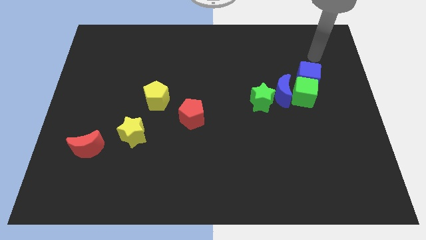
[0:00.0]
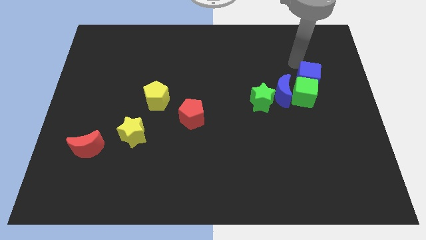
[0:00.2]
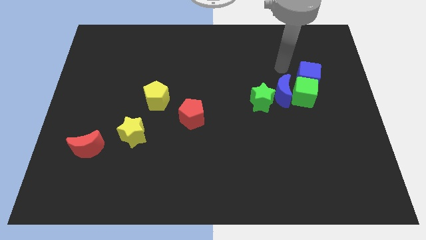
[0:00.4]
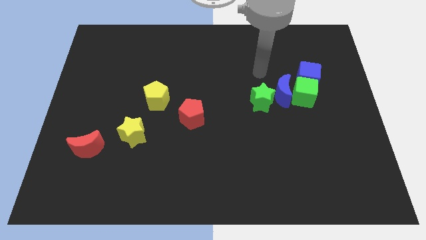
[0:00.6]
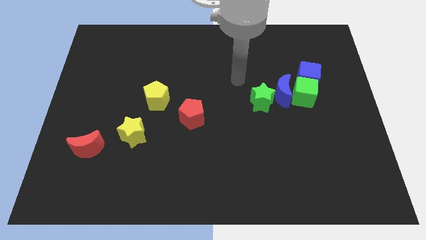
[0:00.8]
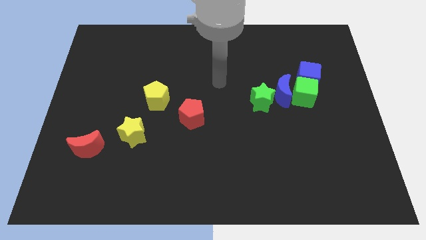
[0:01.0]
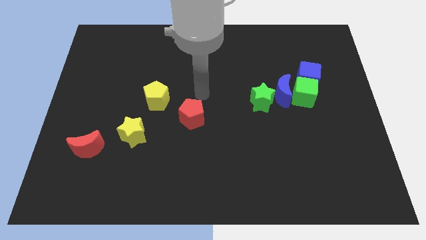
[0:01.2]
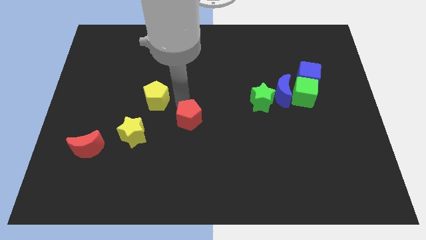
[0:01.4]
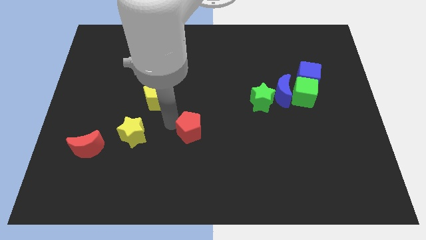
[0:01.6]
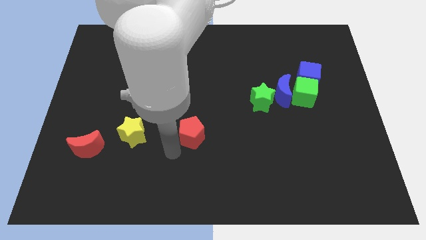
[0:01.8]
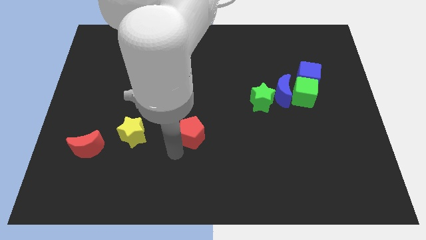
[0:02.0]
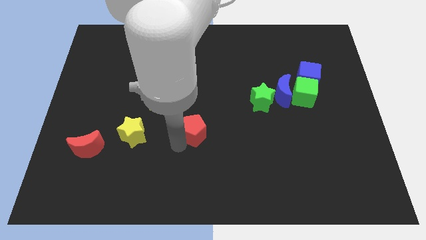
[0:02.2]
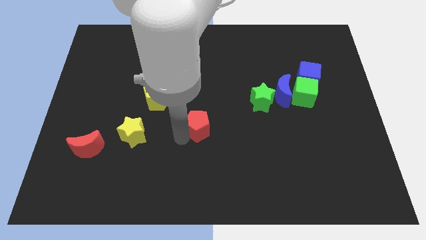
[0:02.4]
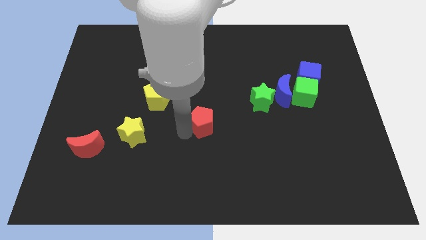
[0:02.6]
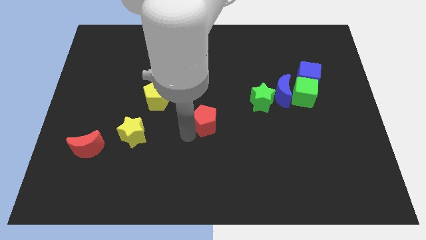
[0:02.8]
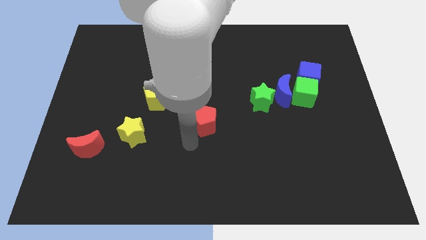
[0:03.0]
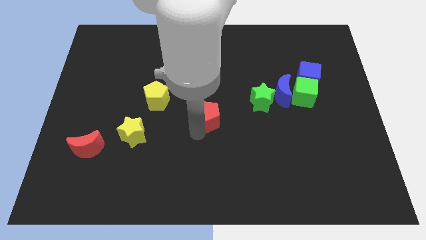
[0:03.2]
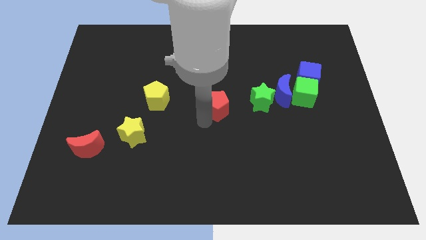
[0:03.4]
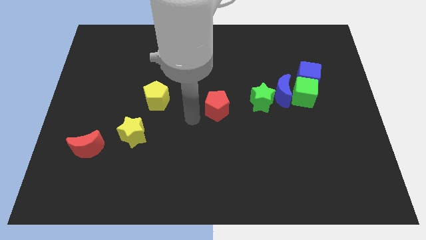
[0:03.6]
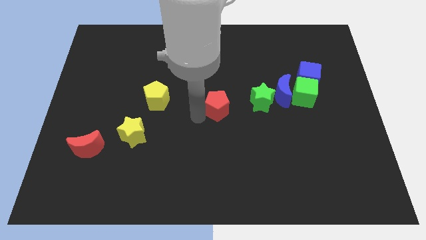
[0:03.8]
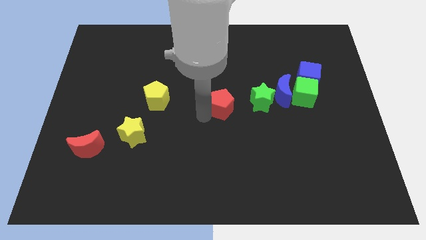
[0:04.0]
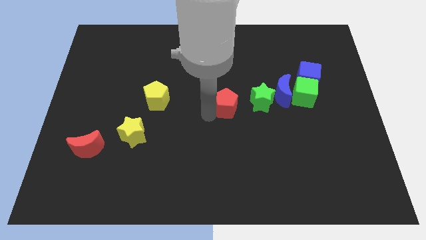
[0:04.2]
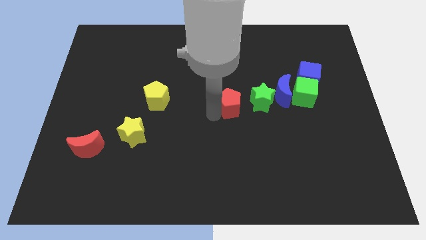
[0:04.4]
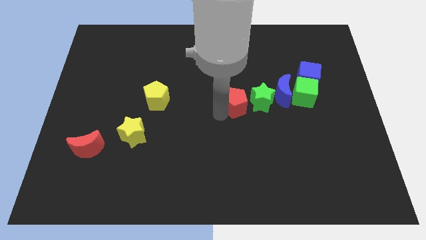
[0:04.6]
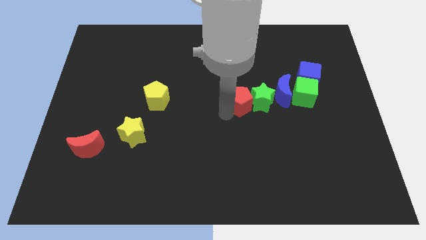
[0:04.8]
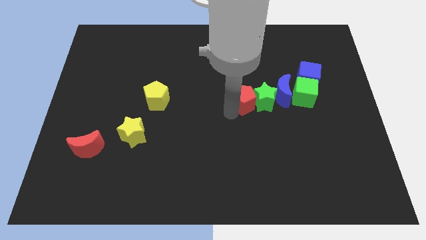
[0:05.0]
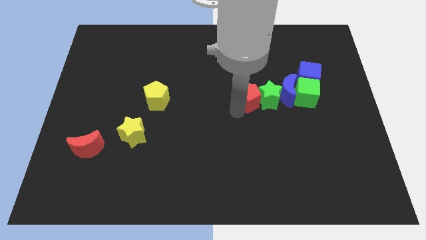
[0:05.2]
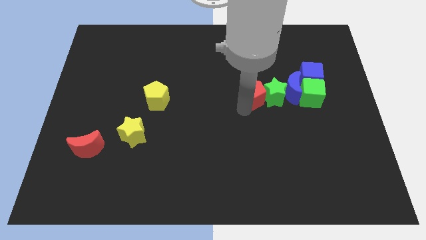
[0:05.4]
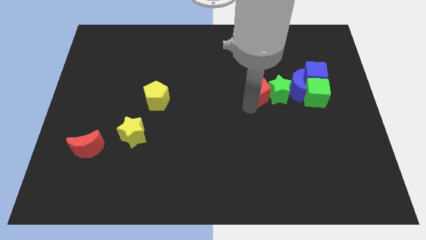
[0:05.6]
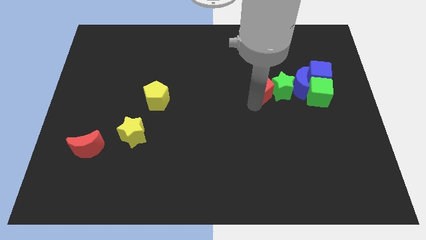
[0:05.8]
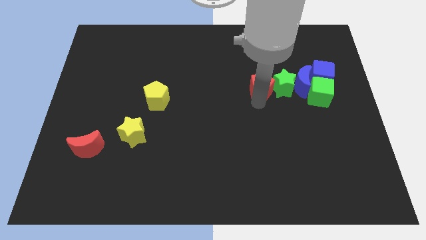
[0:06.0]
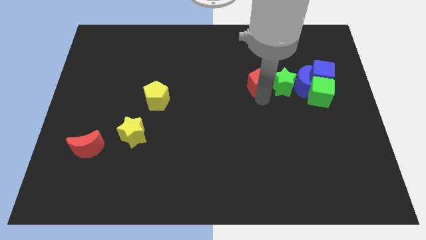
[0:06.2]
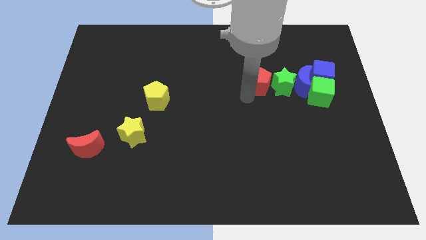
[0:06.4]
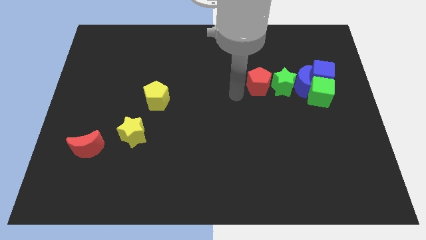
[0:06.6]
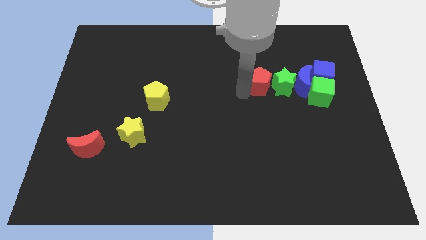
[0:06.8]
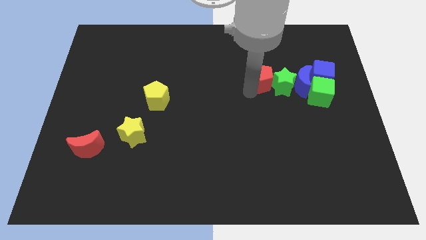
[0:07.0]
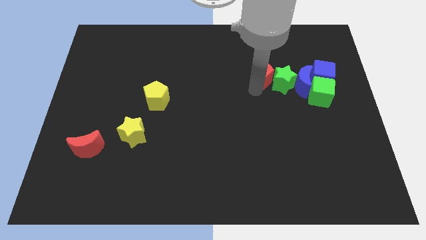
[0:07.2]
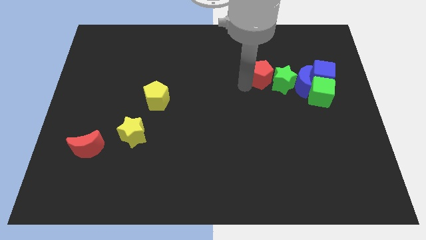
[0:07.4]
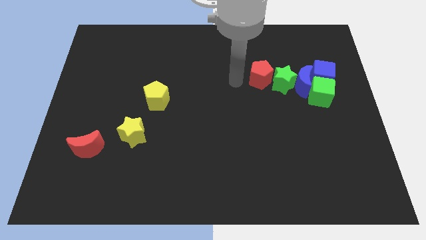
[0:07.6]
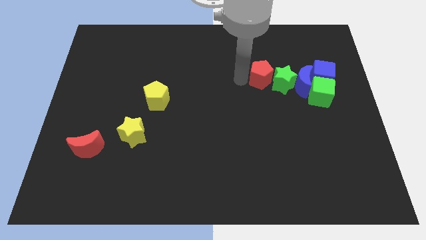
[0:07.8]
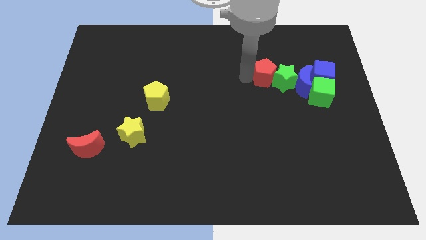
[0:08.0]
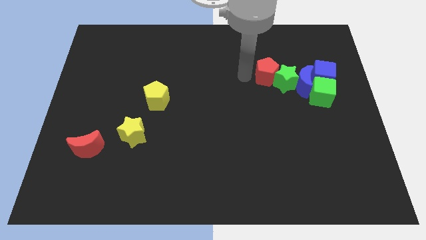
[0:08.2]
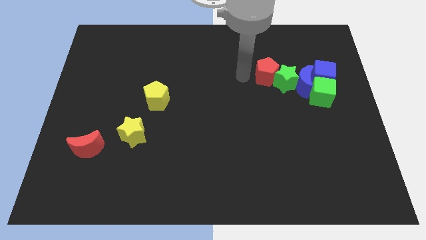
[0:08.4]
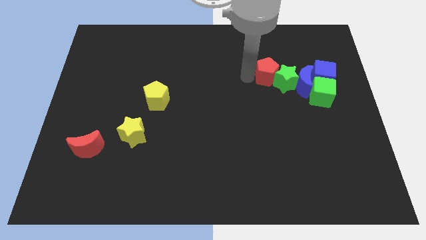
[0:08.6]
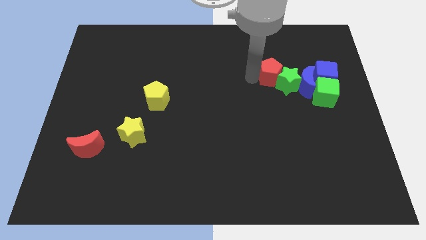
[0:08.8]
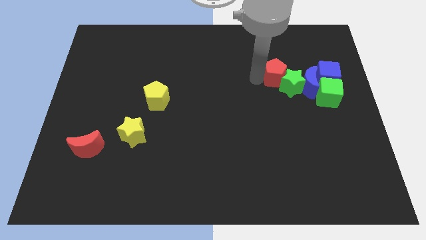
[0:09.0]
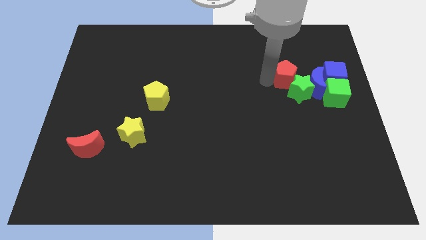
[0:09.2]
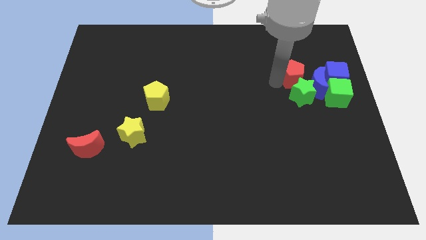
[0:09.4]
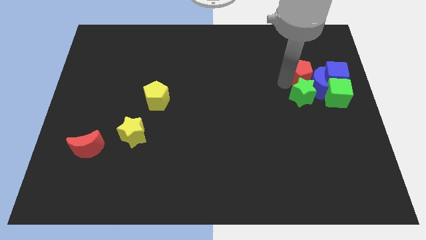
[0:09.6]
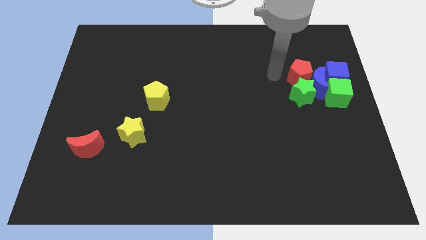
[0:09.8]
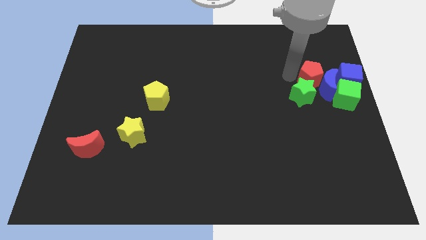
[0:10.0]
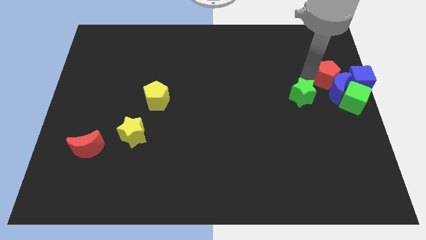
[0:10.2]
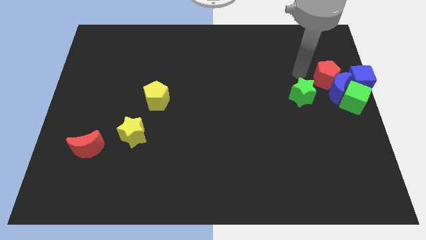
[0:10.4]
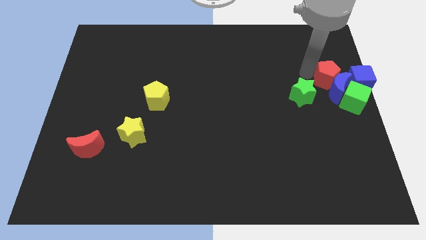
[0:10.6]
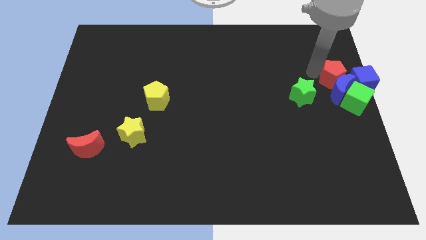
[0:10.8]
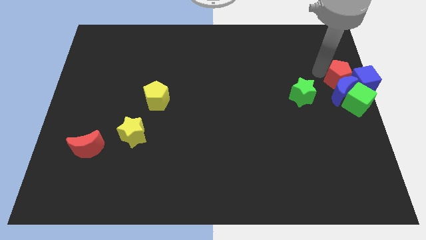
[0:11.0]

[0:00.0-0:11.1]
put the red pentagon next to the blue cube

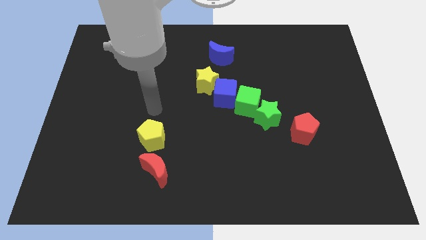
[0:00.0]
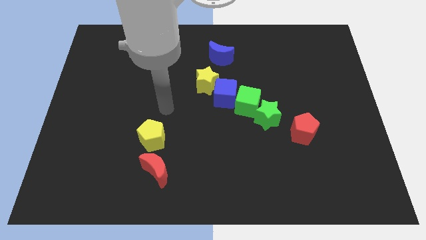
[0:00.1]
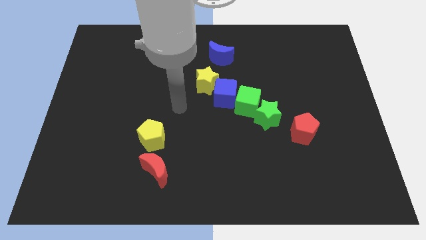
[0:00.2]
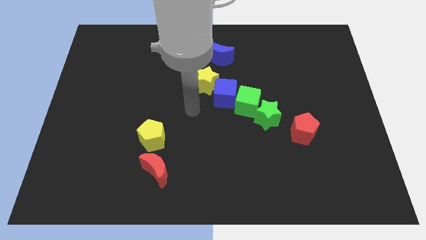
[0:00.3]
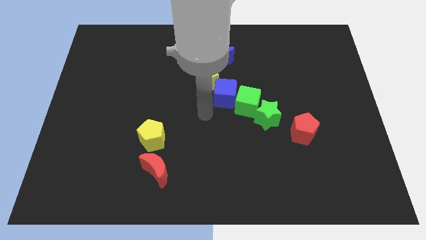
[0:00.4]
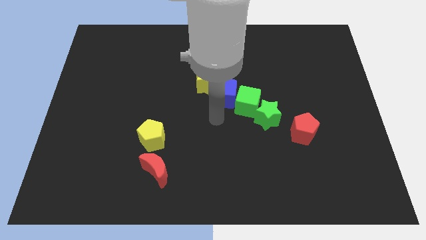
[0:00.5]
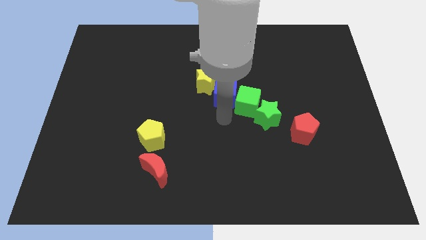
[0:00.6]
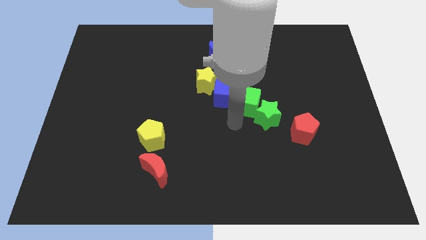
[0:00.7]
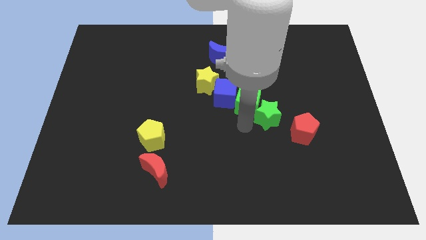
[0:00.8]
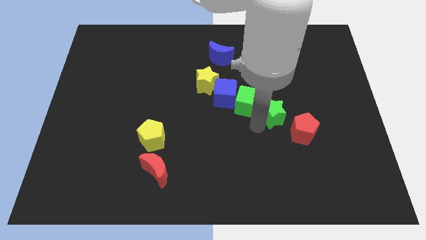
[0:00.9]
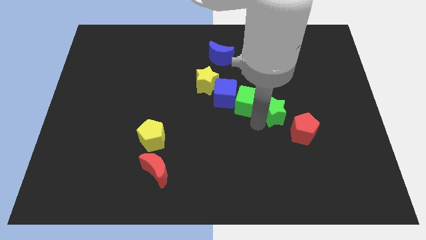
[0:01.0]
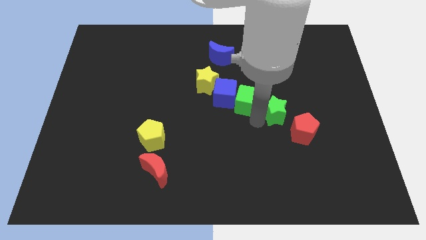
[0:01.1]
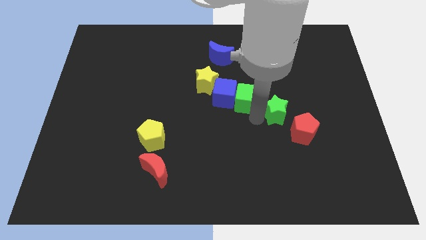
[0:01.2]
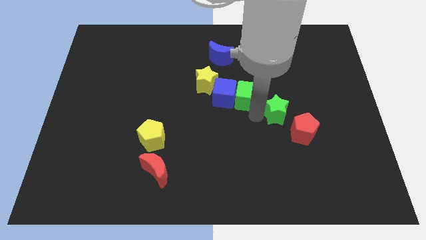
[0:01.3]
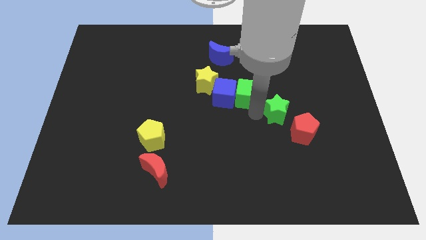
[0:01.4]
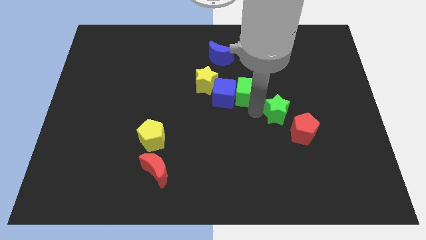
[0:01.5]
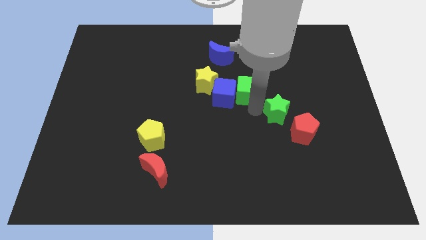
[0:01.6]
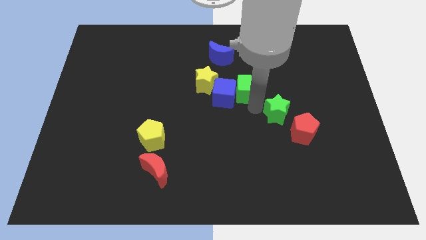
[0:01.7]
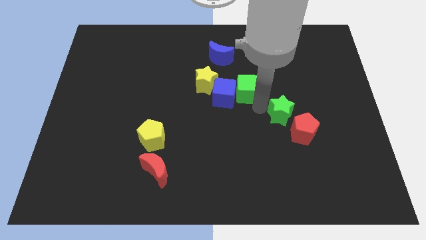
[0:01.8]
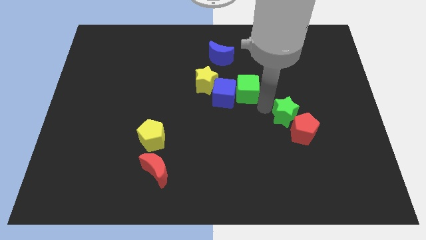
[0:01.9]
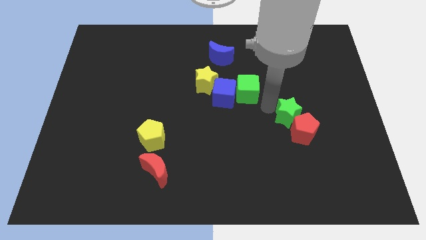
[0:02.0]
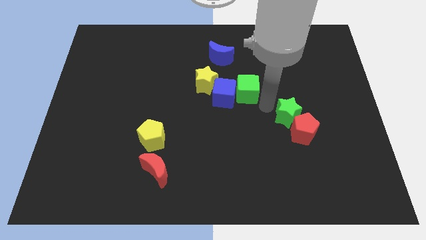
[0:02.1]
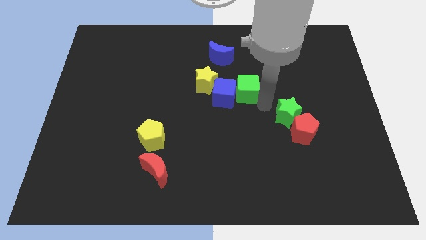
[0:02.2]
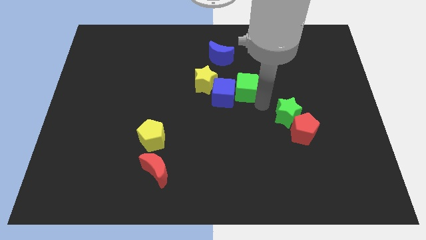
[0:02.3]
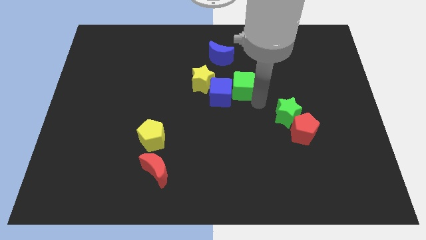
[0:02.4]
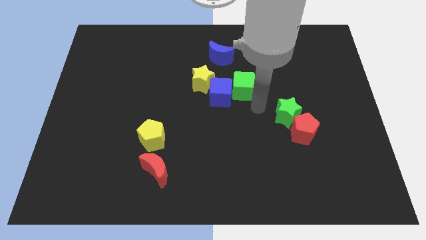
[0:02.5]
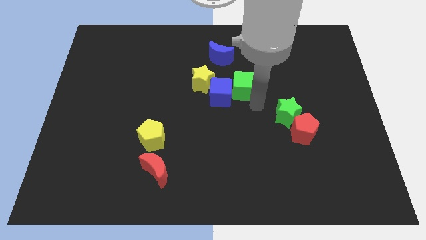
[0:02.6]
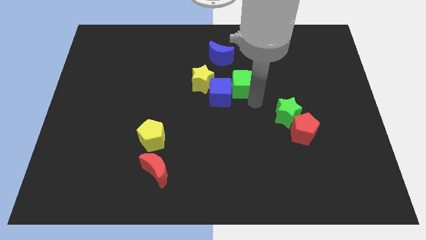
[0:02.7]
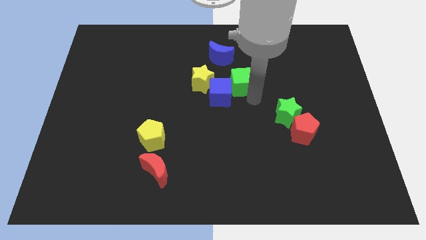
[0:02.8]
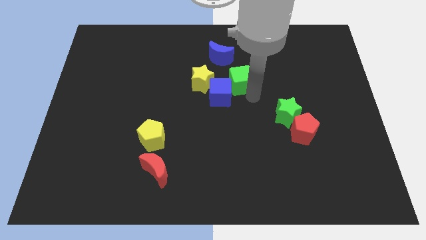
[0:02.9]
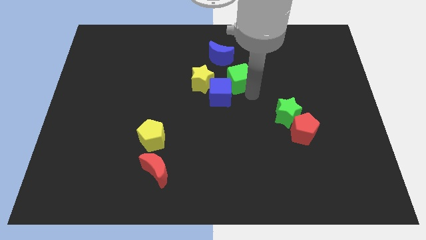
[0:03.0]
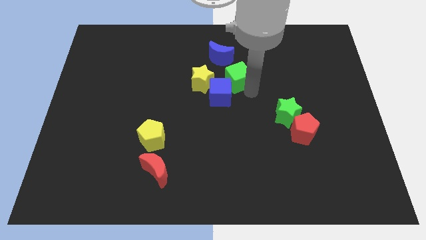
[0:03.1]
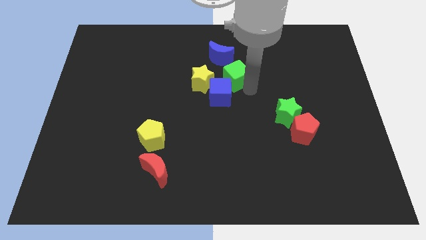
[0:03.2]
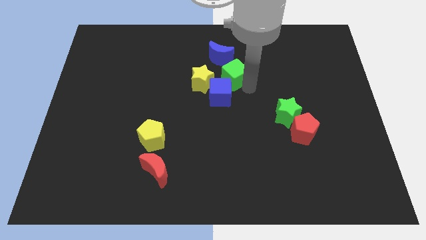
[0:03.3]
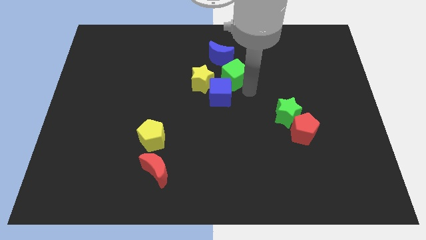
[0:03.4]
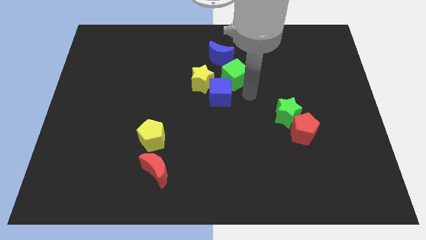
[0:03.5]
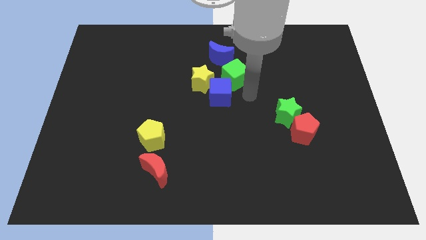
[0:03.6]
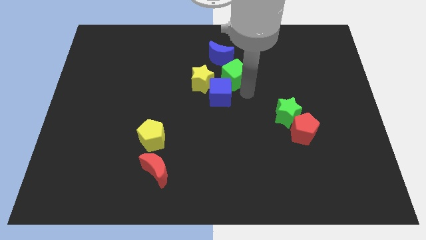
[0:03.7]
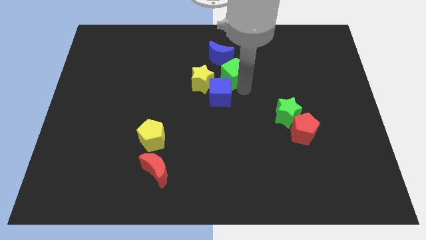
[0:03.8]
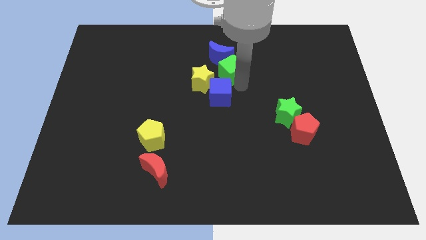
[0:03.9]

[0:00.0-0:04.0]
slide the green cube next to the blue moon
